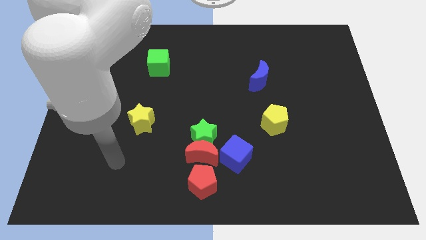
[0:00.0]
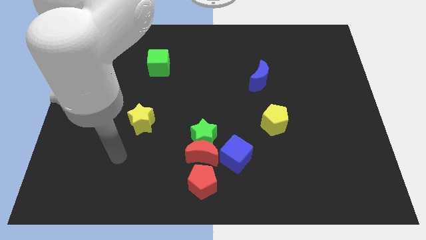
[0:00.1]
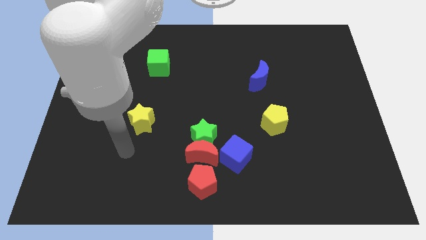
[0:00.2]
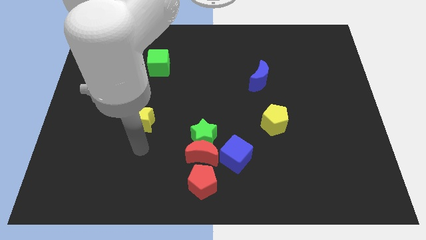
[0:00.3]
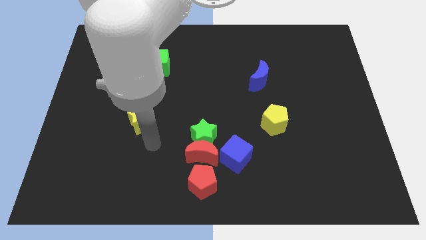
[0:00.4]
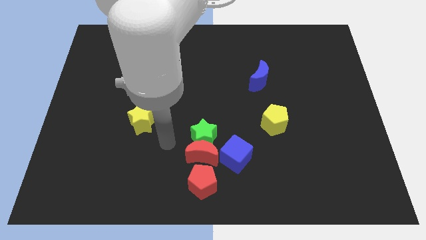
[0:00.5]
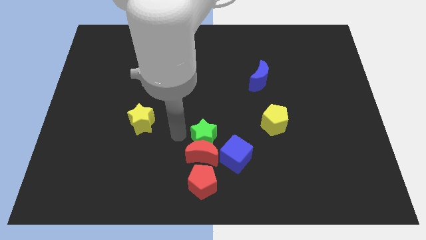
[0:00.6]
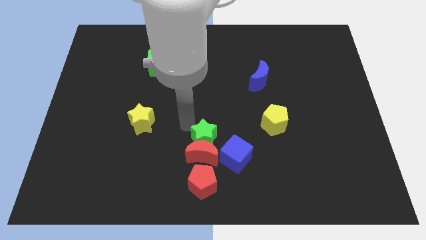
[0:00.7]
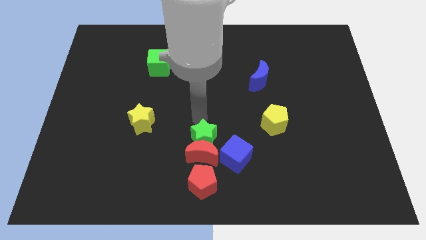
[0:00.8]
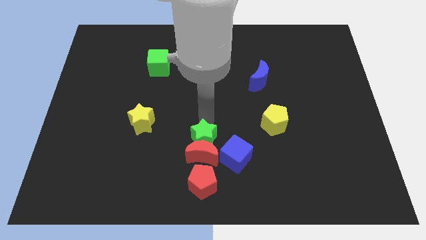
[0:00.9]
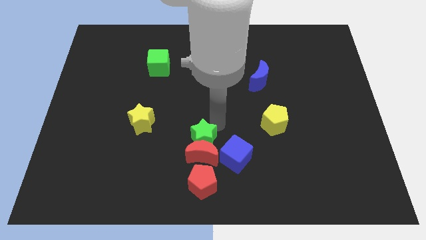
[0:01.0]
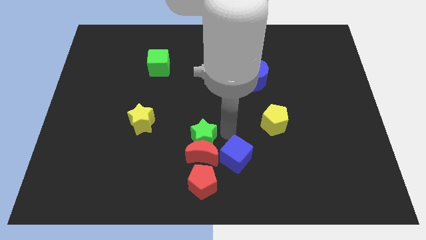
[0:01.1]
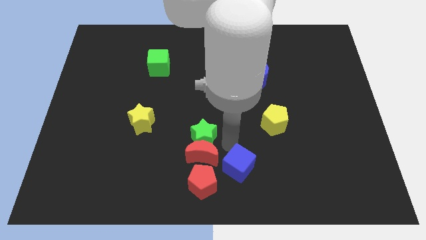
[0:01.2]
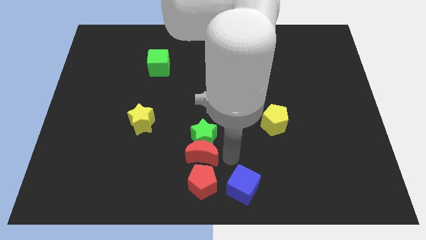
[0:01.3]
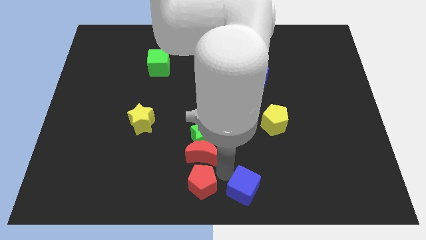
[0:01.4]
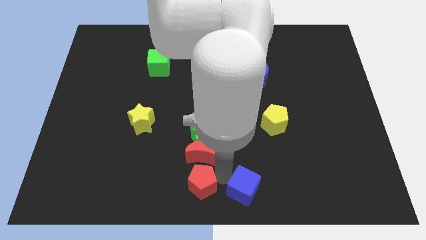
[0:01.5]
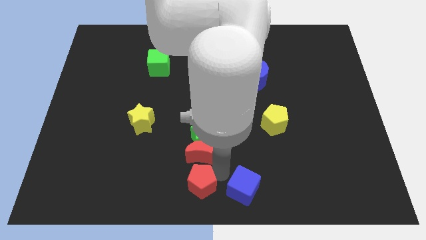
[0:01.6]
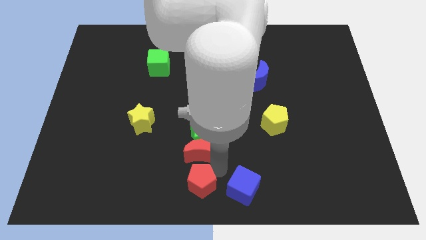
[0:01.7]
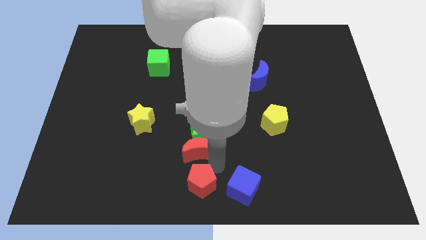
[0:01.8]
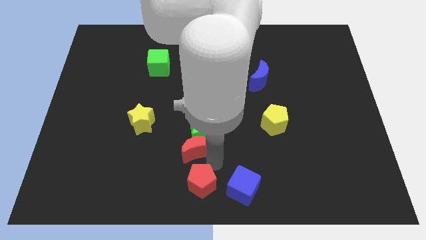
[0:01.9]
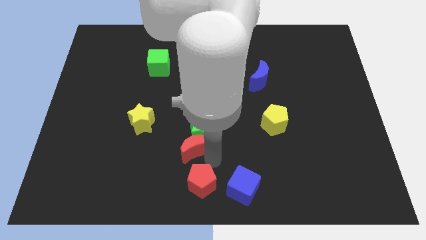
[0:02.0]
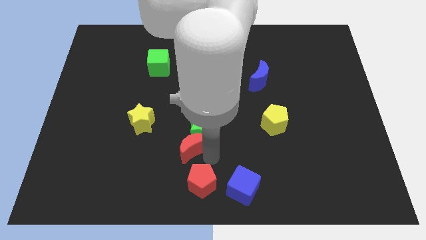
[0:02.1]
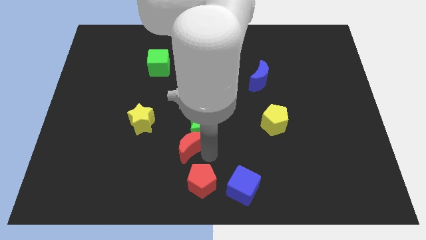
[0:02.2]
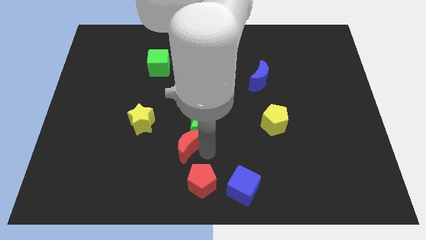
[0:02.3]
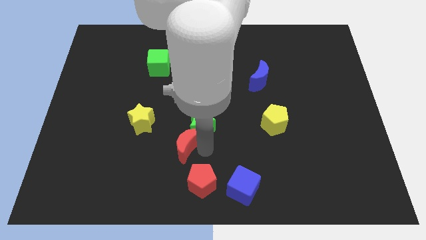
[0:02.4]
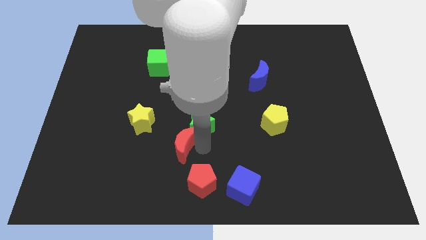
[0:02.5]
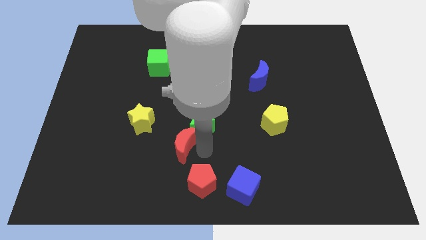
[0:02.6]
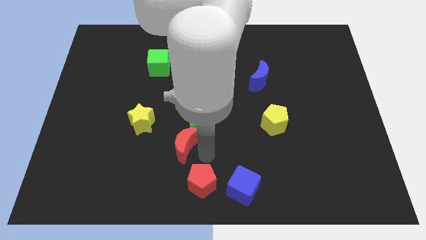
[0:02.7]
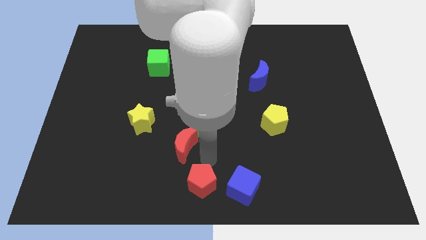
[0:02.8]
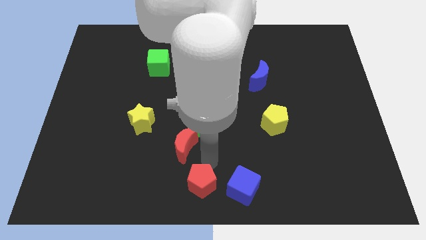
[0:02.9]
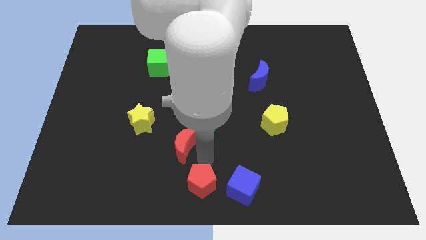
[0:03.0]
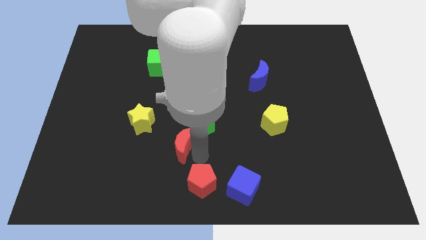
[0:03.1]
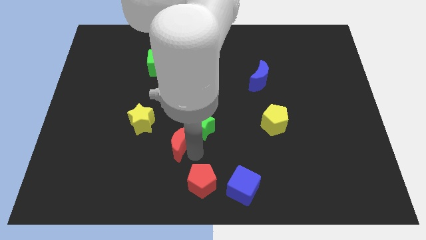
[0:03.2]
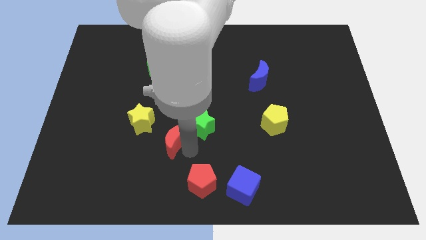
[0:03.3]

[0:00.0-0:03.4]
separate the red moon from the clump

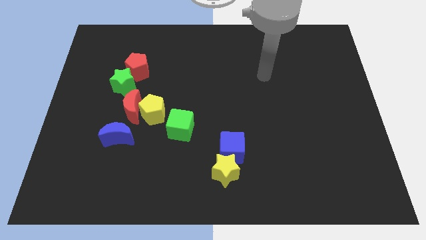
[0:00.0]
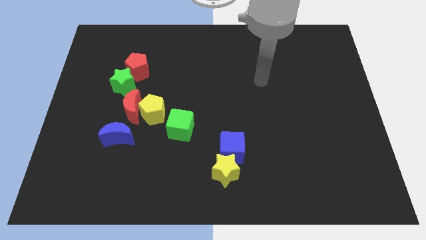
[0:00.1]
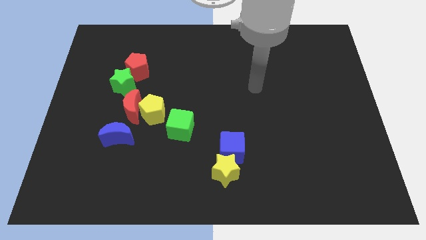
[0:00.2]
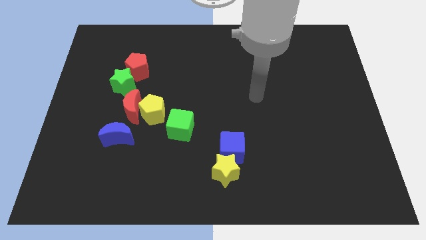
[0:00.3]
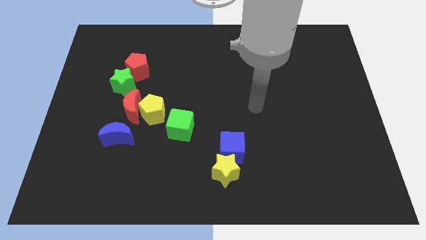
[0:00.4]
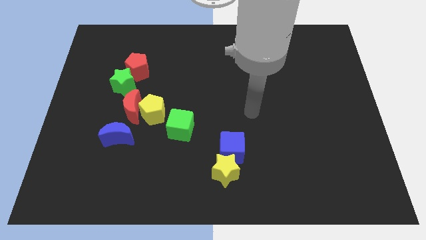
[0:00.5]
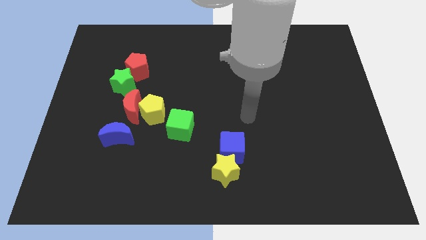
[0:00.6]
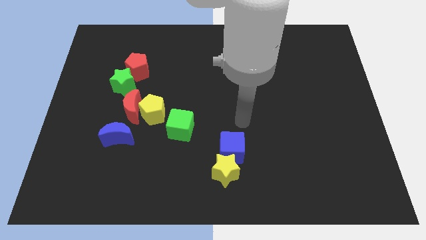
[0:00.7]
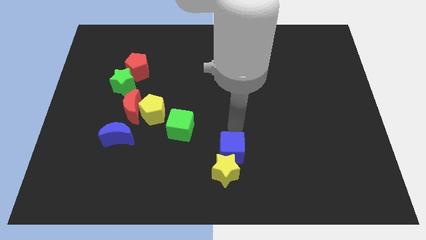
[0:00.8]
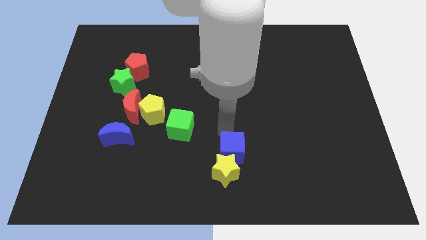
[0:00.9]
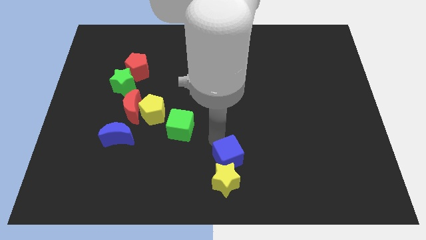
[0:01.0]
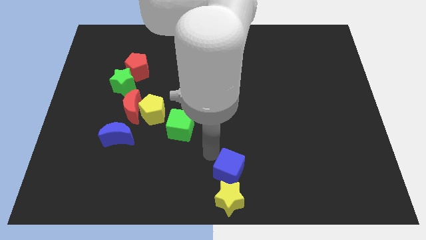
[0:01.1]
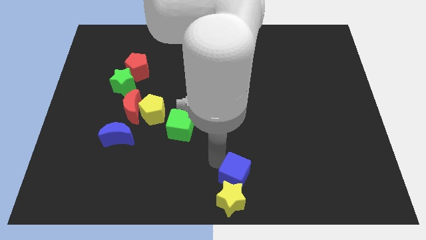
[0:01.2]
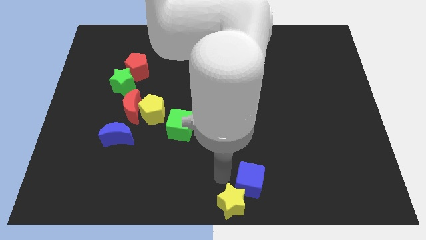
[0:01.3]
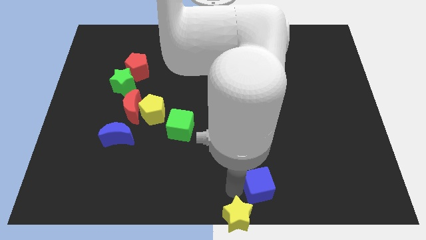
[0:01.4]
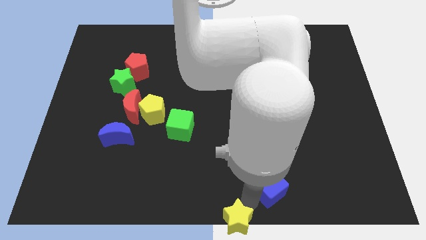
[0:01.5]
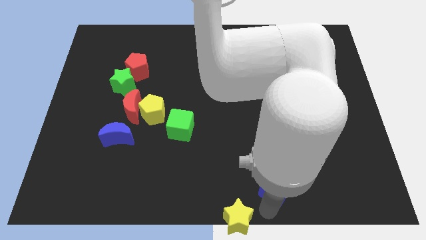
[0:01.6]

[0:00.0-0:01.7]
separate the blue cube from the yellow star

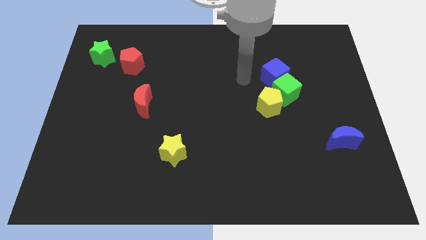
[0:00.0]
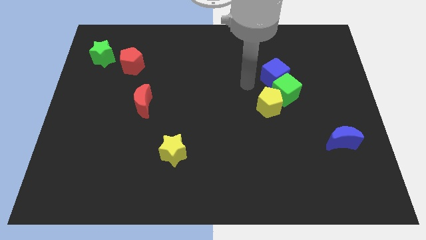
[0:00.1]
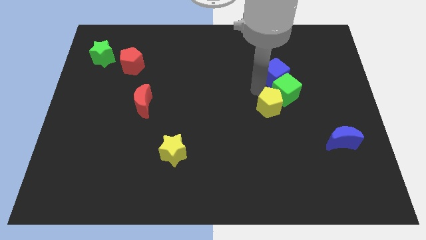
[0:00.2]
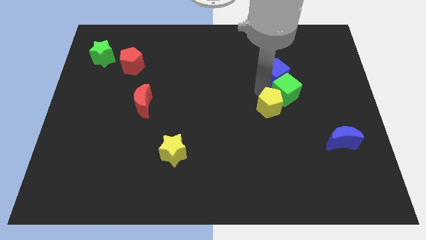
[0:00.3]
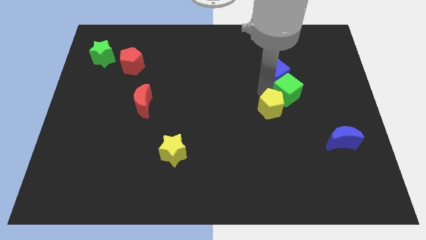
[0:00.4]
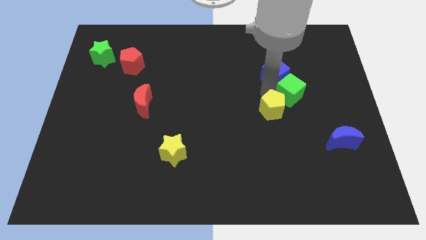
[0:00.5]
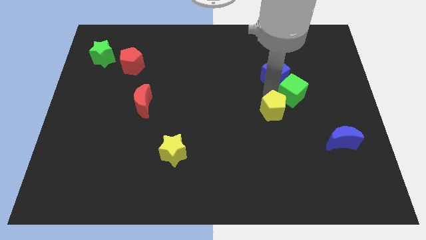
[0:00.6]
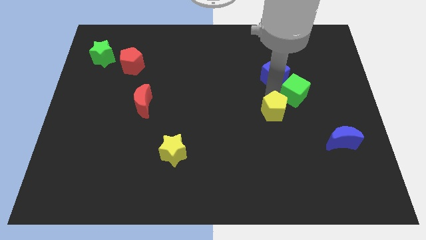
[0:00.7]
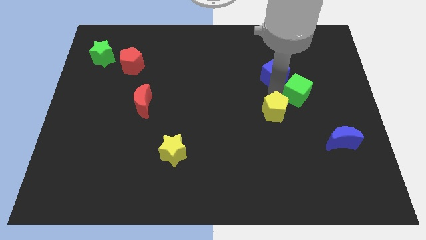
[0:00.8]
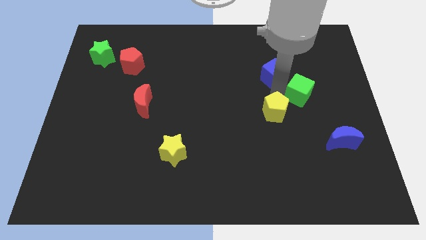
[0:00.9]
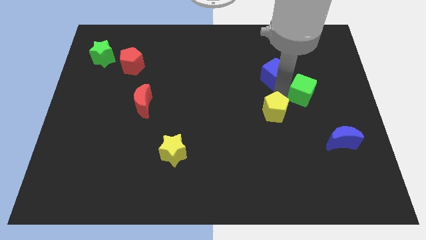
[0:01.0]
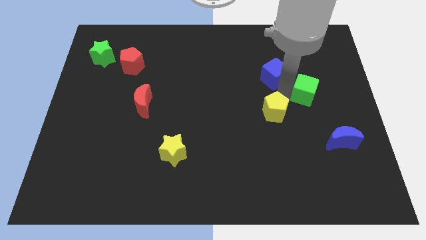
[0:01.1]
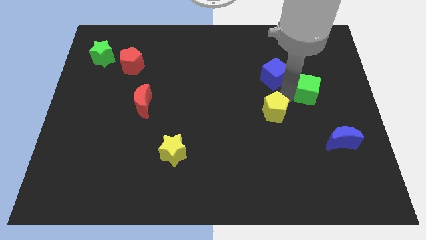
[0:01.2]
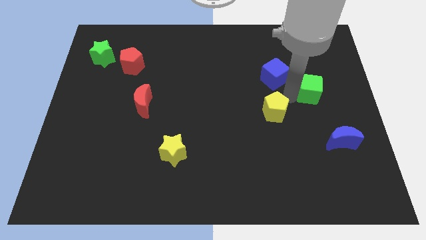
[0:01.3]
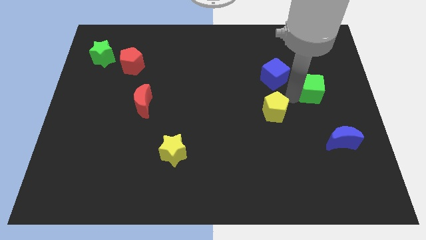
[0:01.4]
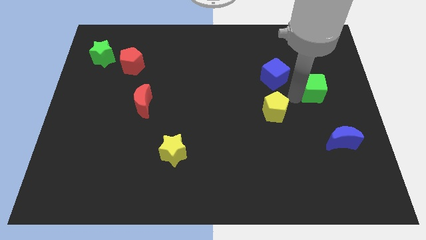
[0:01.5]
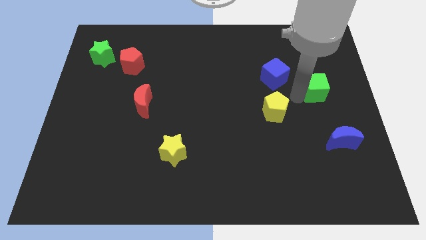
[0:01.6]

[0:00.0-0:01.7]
move the green cube away from the blue cube and yellow pentagon

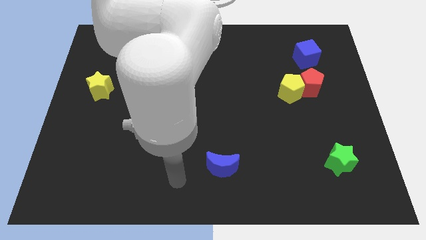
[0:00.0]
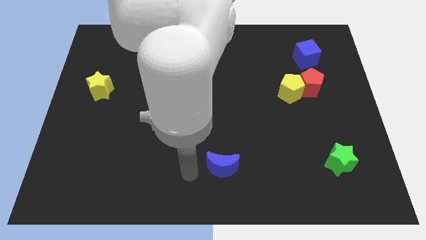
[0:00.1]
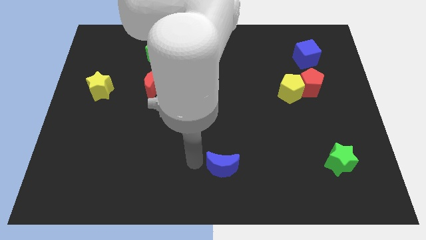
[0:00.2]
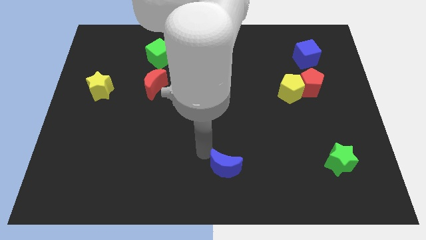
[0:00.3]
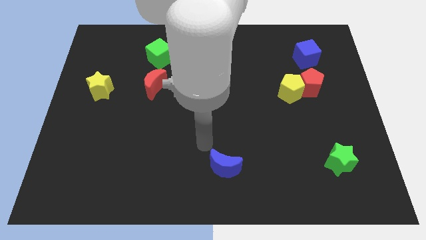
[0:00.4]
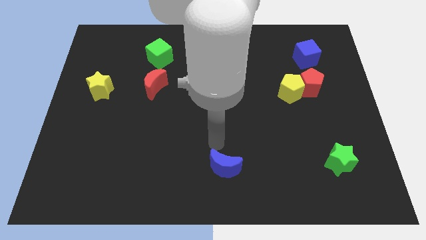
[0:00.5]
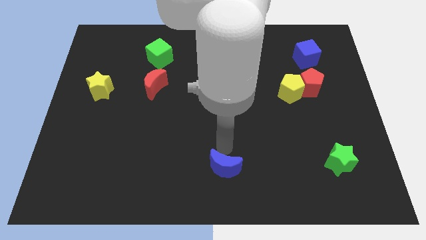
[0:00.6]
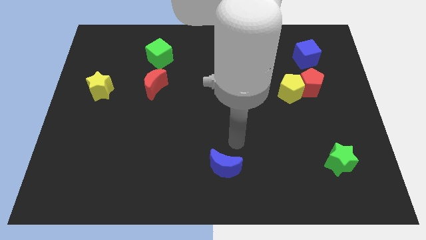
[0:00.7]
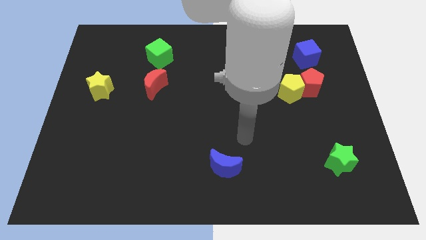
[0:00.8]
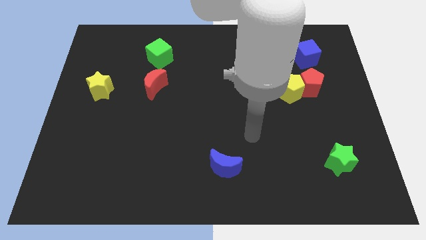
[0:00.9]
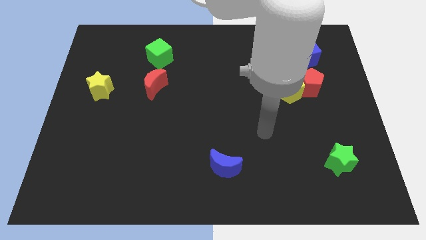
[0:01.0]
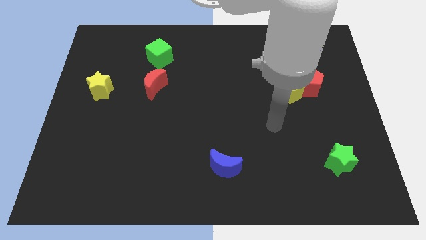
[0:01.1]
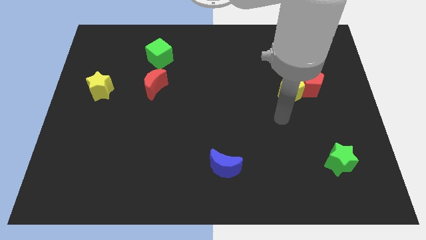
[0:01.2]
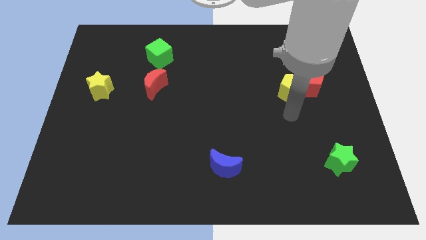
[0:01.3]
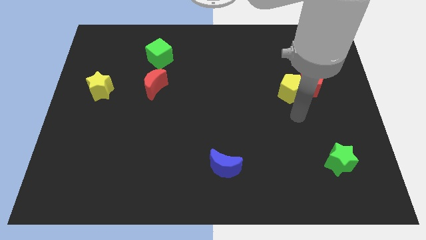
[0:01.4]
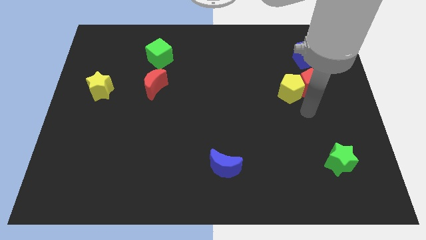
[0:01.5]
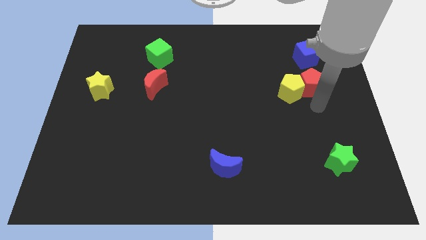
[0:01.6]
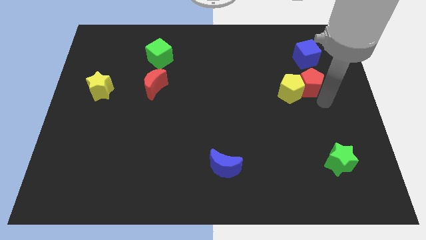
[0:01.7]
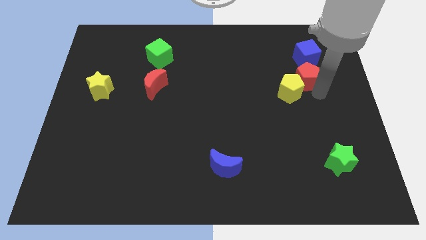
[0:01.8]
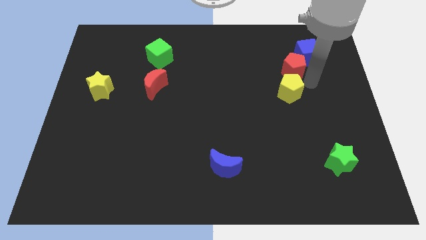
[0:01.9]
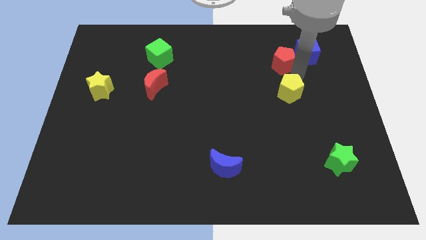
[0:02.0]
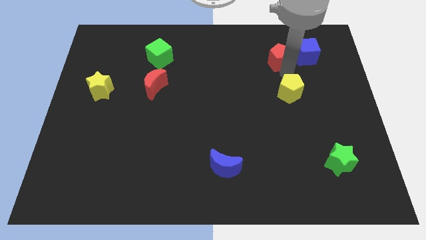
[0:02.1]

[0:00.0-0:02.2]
move the yellow pentagon away from the red pentagon

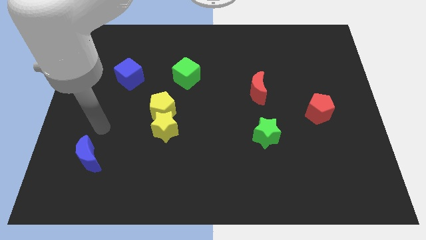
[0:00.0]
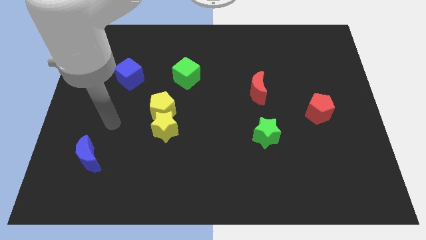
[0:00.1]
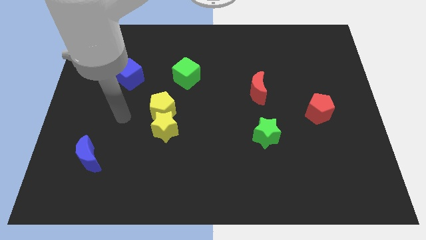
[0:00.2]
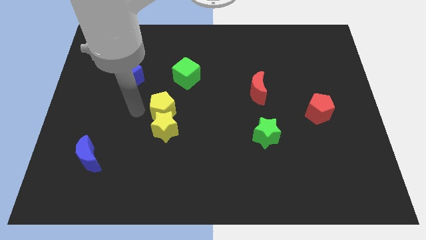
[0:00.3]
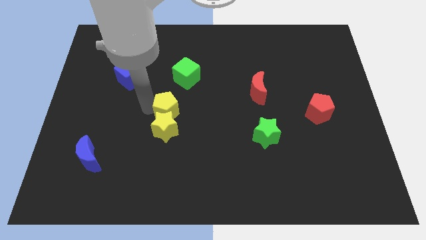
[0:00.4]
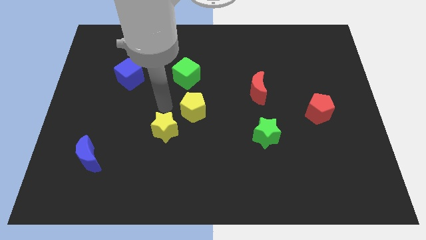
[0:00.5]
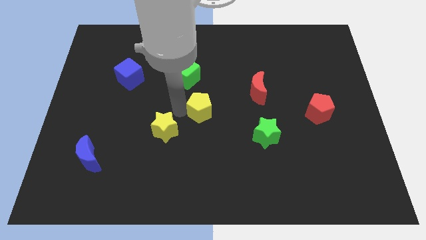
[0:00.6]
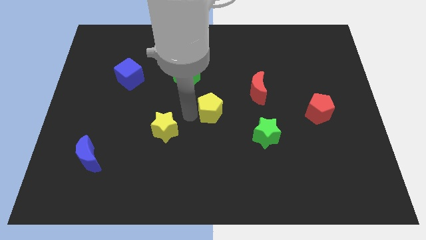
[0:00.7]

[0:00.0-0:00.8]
separate the yellow star from the yellow pentagon
